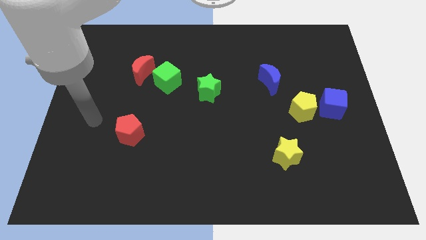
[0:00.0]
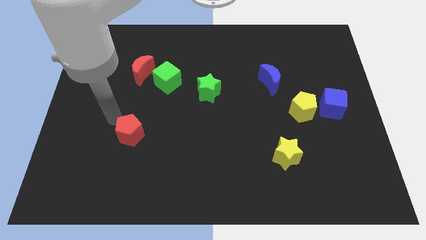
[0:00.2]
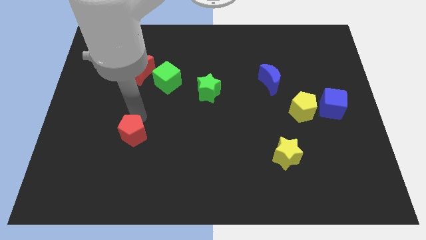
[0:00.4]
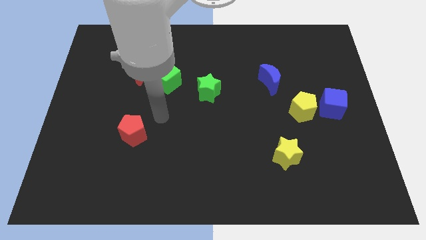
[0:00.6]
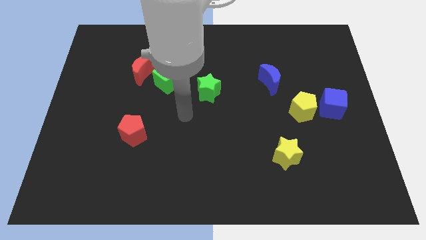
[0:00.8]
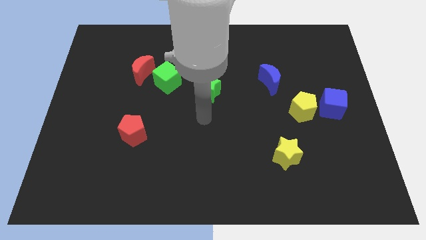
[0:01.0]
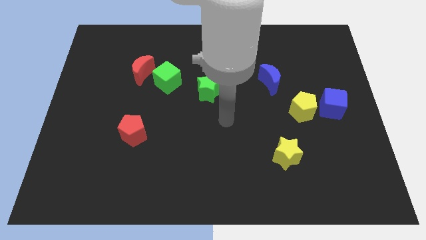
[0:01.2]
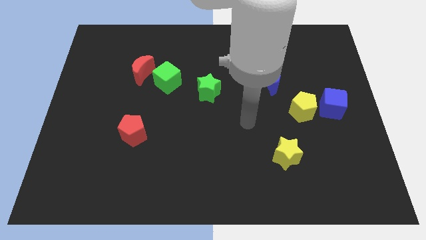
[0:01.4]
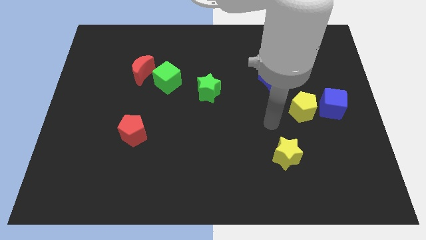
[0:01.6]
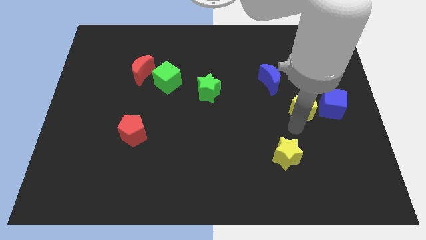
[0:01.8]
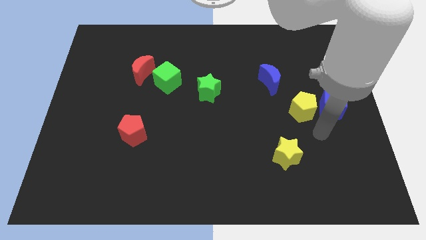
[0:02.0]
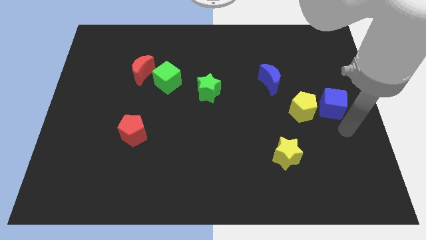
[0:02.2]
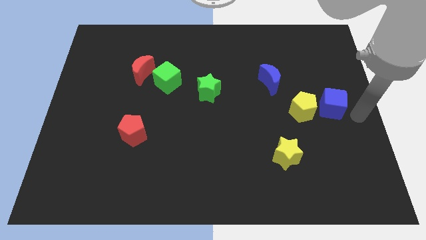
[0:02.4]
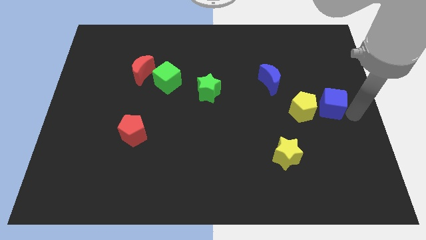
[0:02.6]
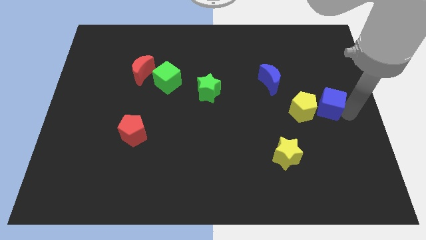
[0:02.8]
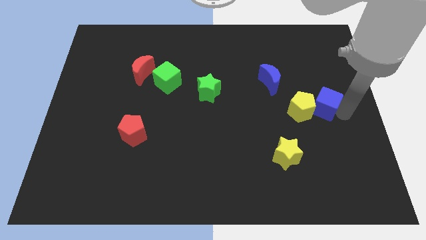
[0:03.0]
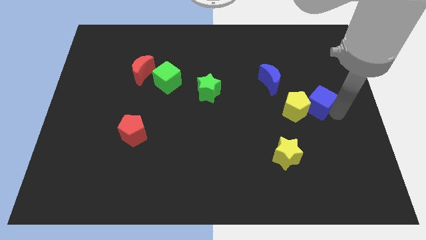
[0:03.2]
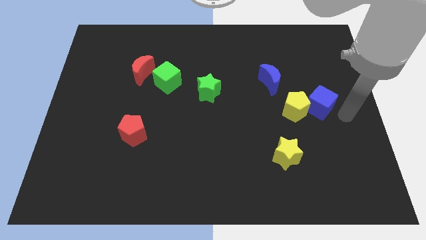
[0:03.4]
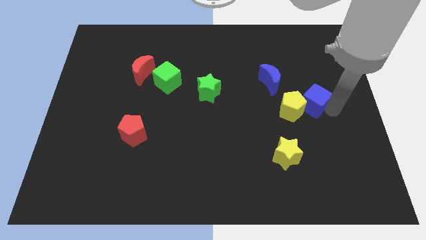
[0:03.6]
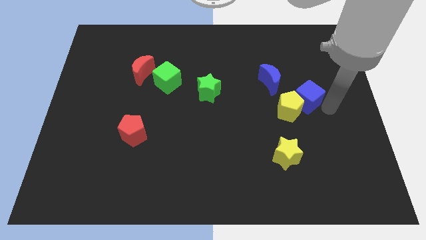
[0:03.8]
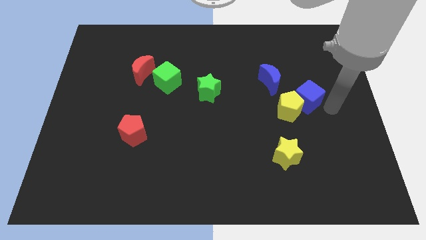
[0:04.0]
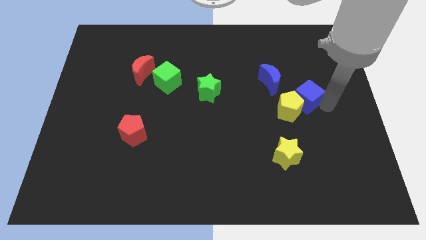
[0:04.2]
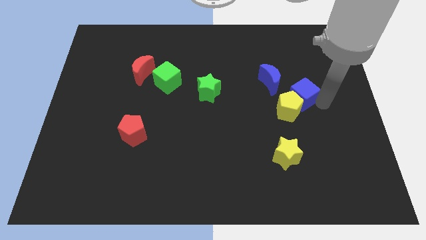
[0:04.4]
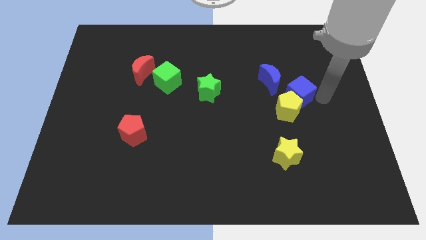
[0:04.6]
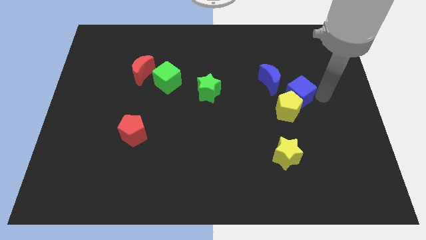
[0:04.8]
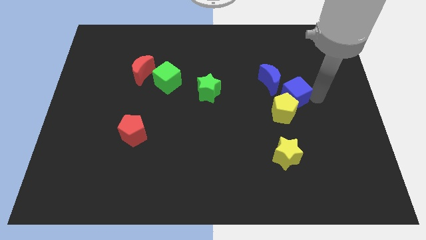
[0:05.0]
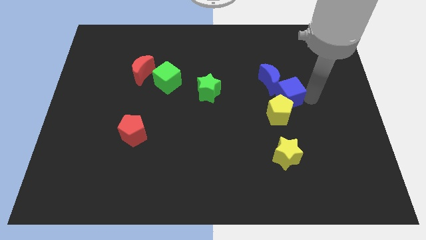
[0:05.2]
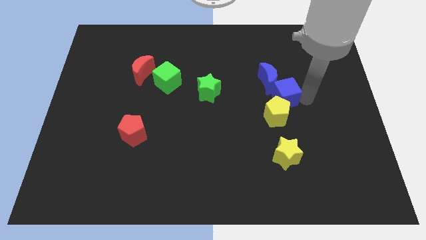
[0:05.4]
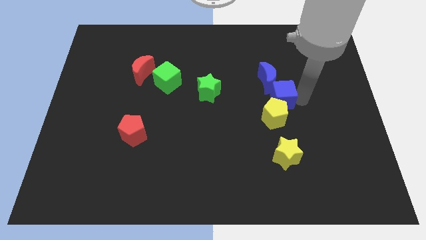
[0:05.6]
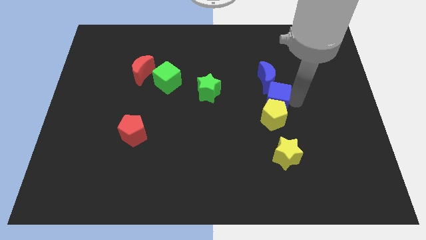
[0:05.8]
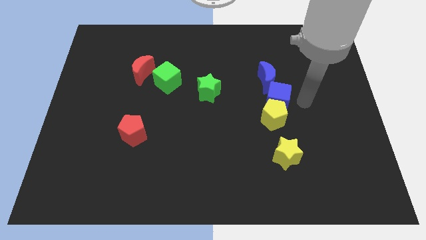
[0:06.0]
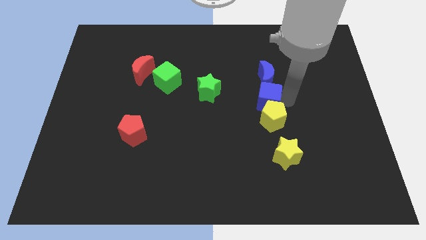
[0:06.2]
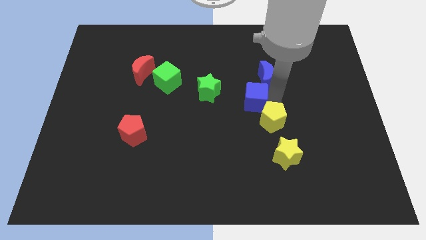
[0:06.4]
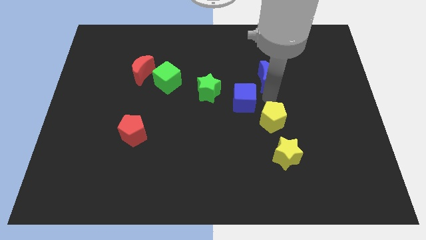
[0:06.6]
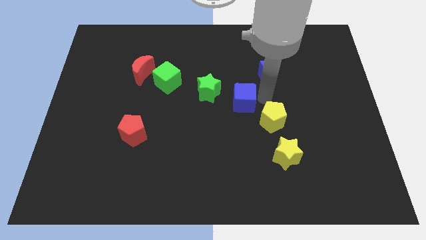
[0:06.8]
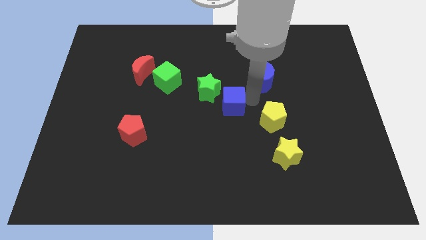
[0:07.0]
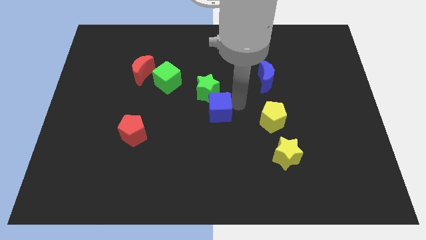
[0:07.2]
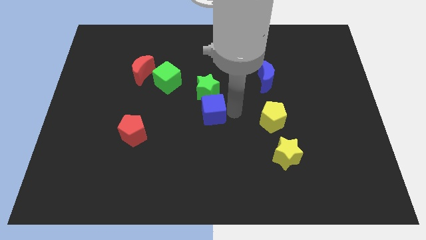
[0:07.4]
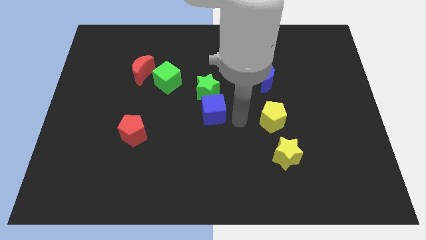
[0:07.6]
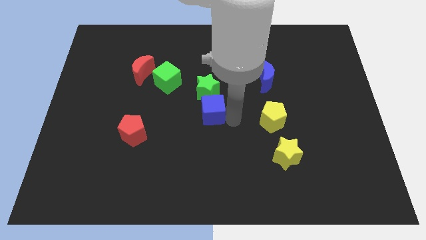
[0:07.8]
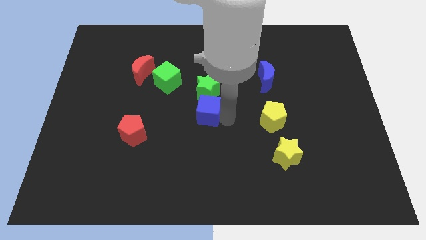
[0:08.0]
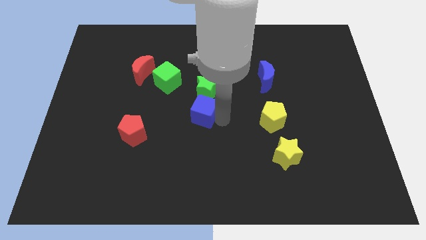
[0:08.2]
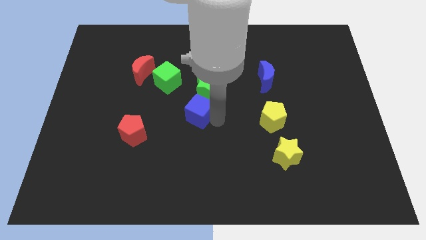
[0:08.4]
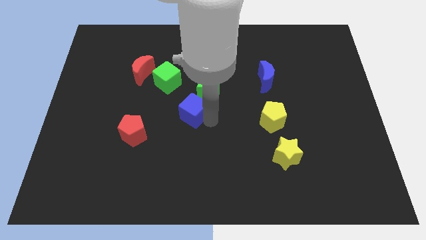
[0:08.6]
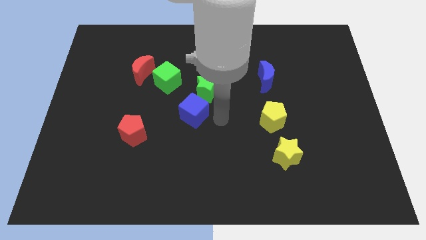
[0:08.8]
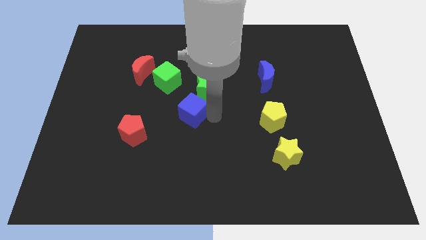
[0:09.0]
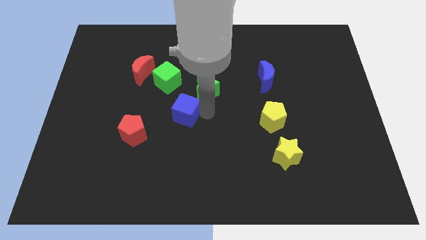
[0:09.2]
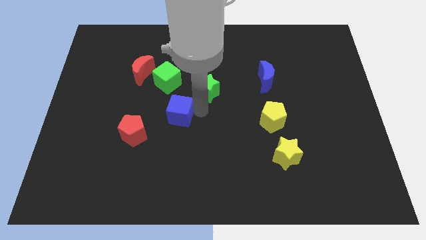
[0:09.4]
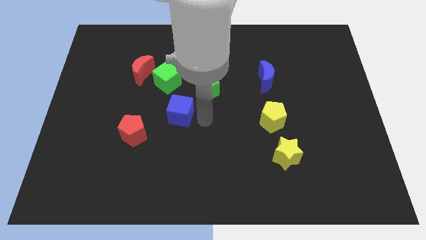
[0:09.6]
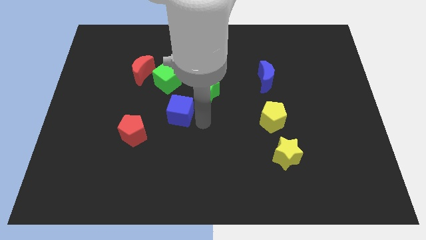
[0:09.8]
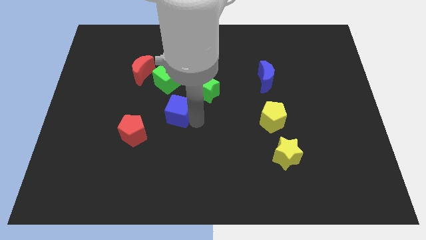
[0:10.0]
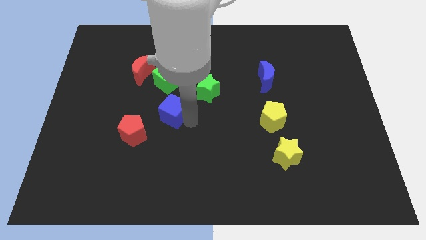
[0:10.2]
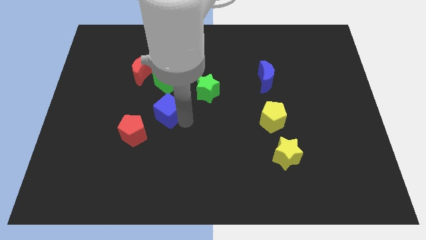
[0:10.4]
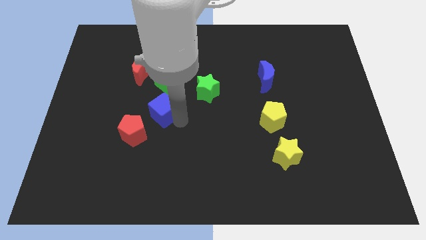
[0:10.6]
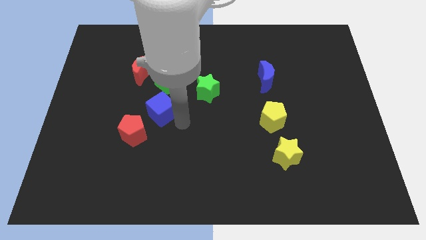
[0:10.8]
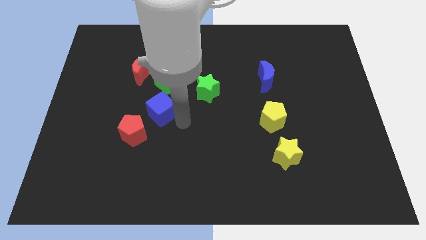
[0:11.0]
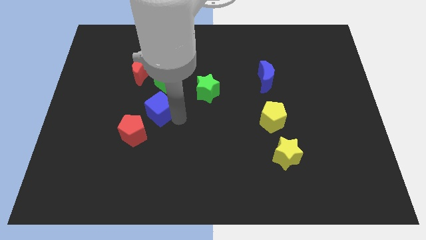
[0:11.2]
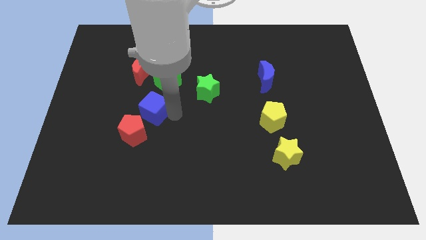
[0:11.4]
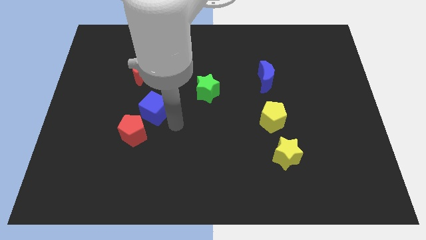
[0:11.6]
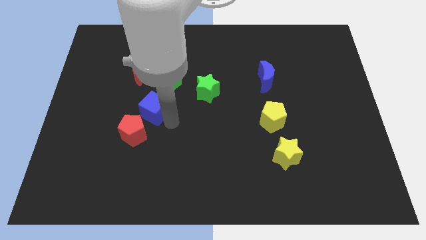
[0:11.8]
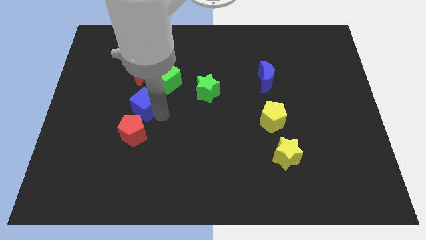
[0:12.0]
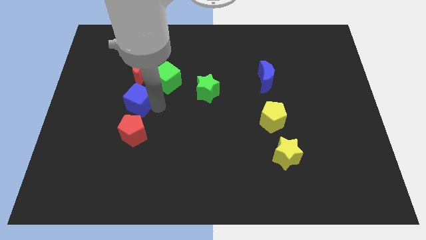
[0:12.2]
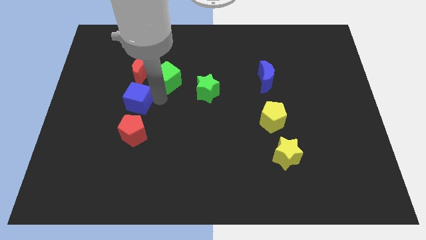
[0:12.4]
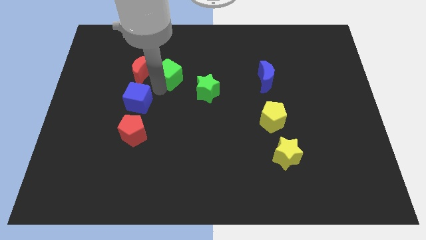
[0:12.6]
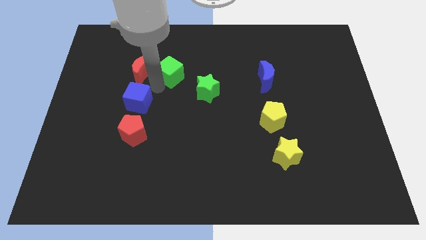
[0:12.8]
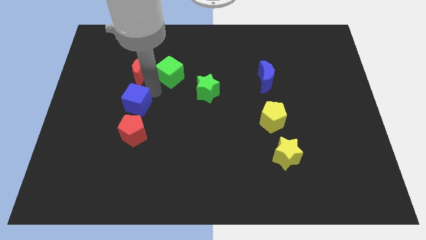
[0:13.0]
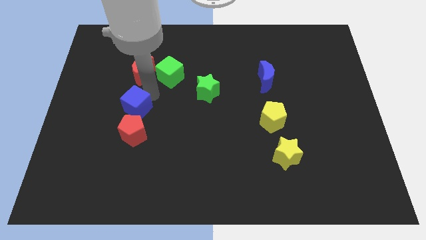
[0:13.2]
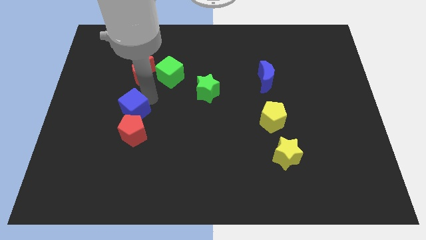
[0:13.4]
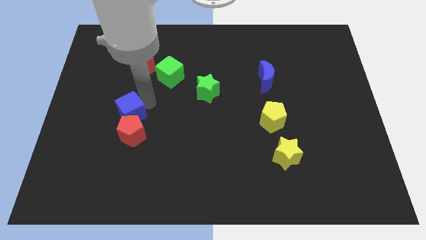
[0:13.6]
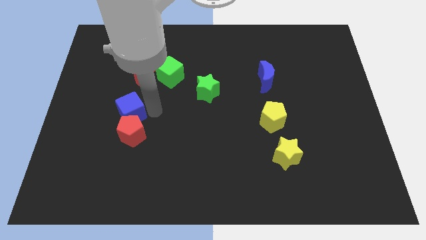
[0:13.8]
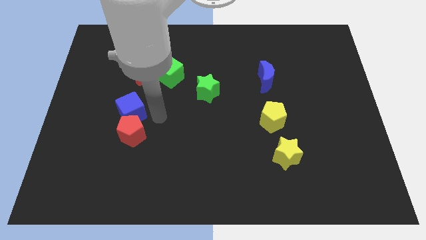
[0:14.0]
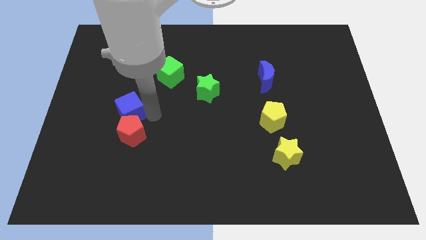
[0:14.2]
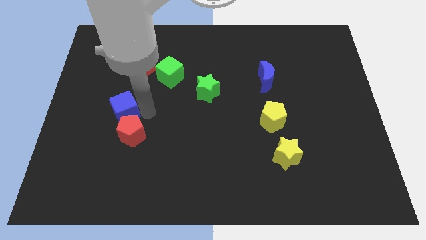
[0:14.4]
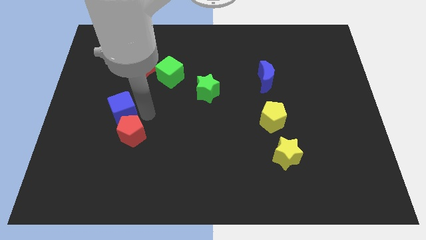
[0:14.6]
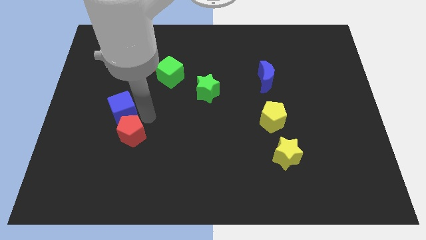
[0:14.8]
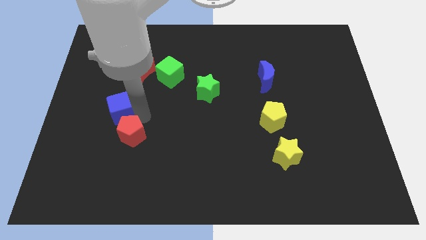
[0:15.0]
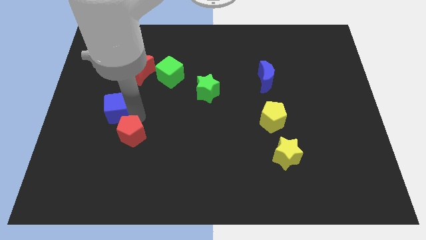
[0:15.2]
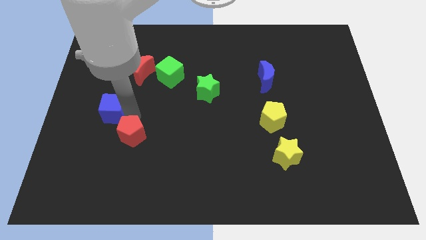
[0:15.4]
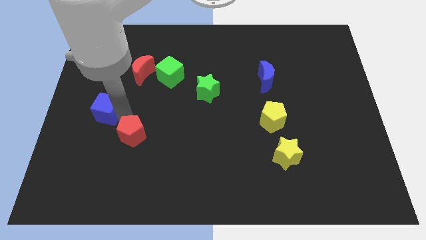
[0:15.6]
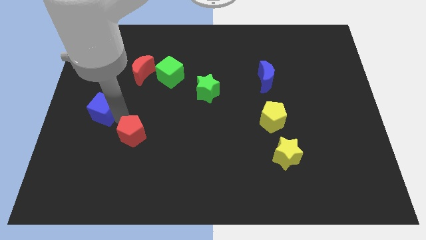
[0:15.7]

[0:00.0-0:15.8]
put the blue cube to the left side of the board
